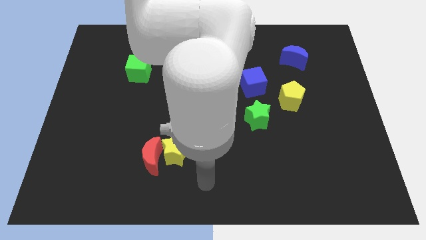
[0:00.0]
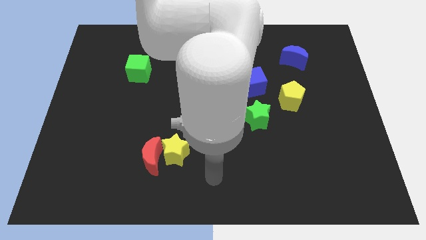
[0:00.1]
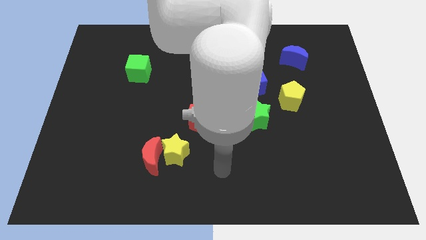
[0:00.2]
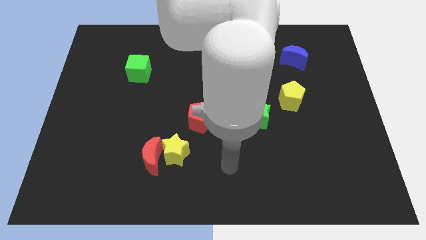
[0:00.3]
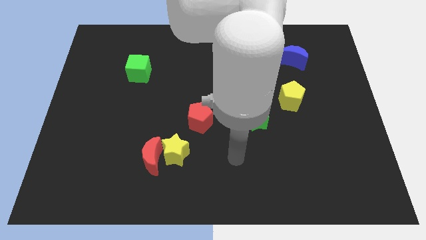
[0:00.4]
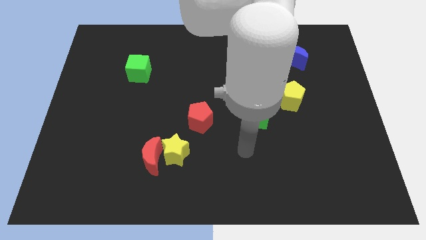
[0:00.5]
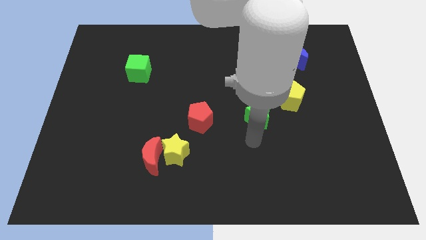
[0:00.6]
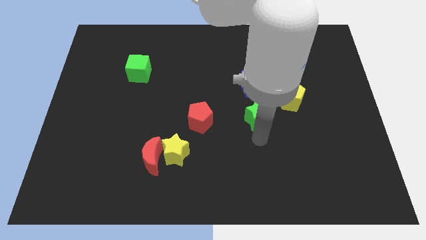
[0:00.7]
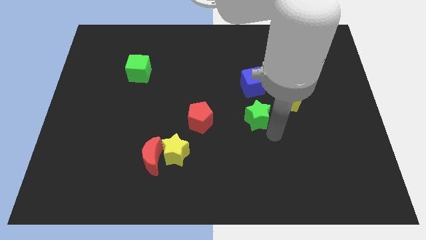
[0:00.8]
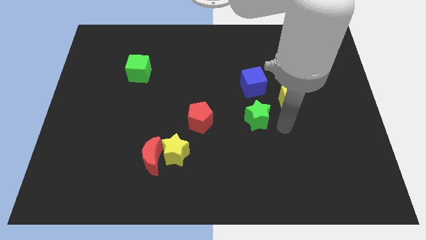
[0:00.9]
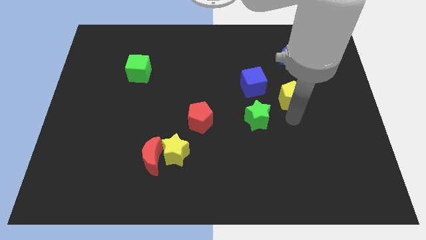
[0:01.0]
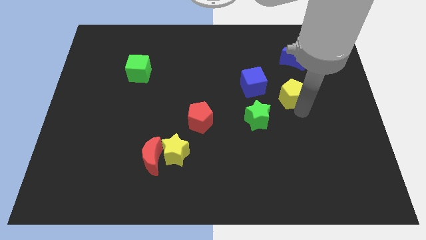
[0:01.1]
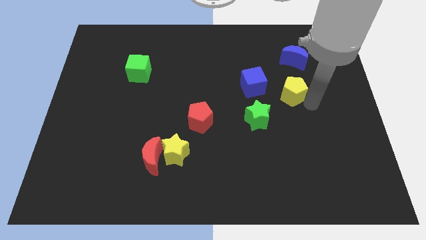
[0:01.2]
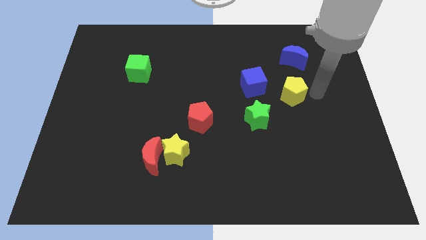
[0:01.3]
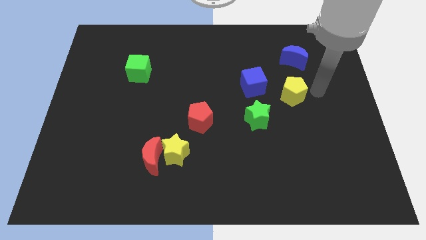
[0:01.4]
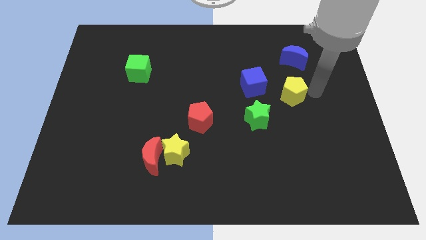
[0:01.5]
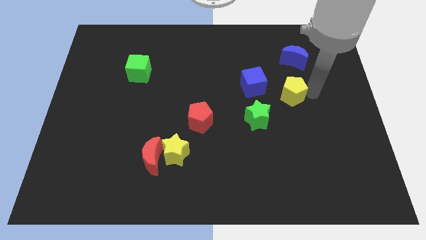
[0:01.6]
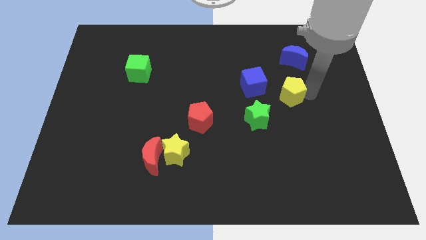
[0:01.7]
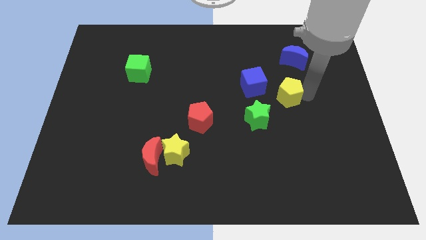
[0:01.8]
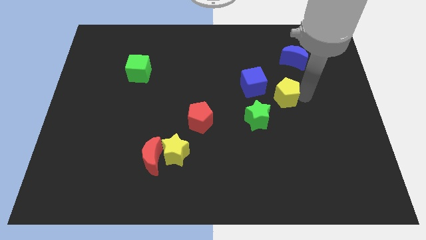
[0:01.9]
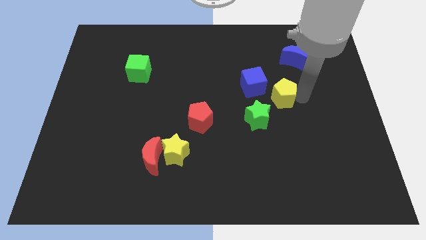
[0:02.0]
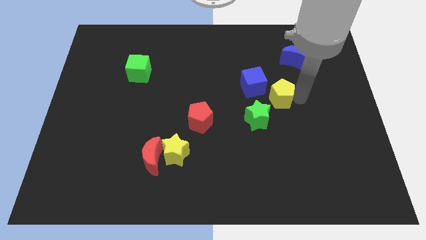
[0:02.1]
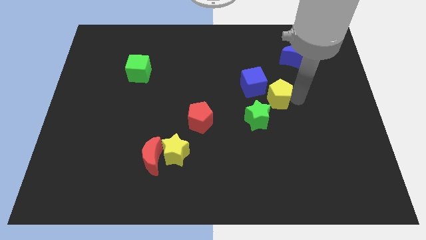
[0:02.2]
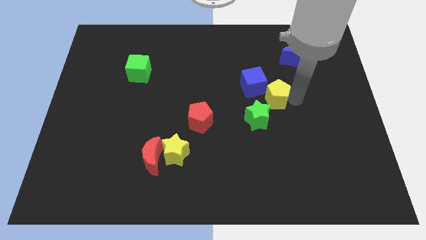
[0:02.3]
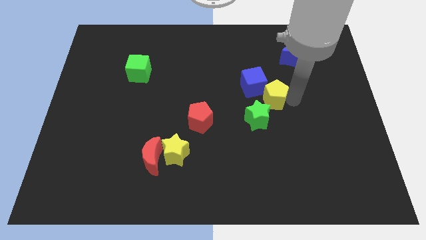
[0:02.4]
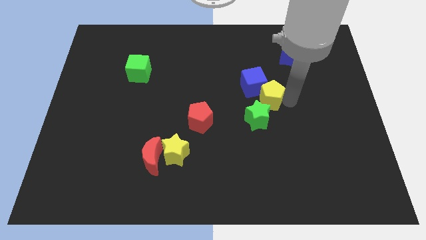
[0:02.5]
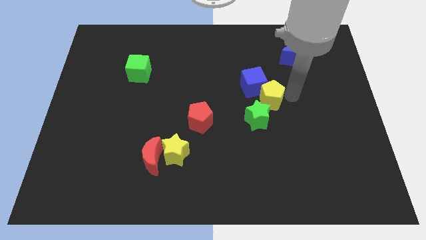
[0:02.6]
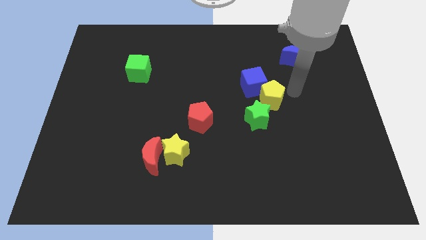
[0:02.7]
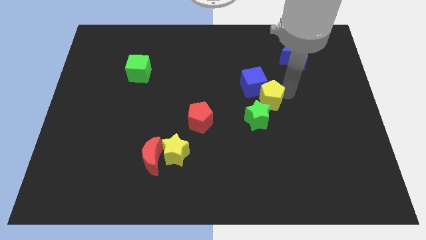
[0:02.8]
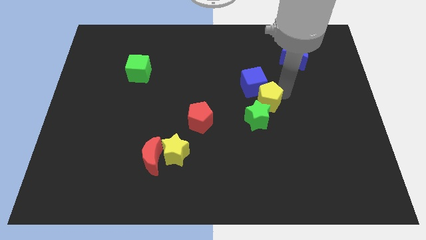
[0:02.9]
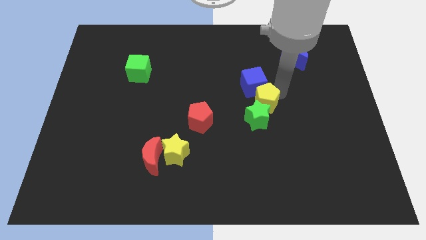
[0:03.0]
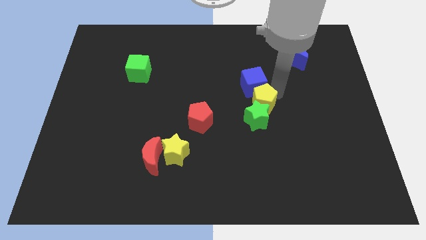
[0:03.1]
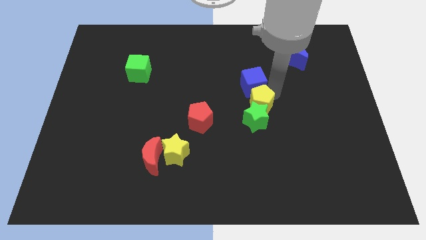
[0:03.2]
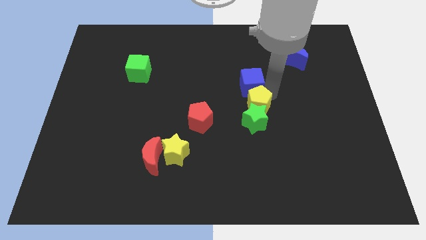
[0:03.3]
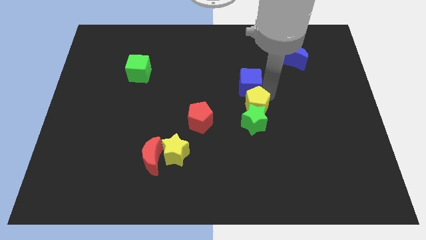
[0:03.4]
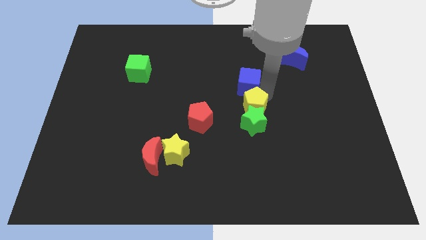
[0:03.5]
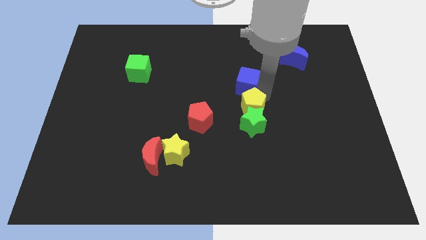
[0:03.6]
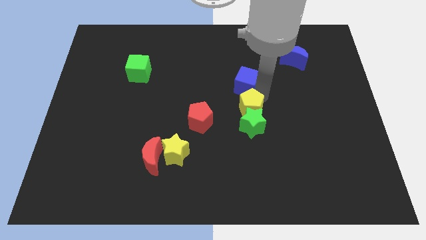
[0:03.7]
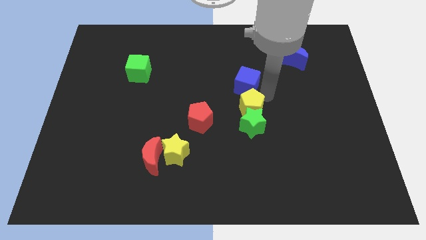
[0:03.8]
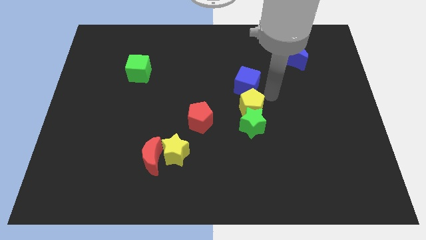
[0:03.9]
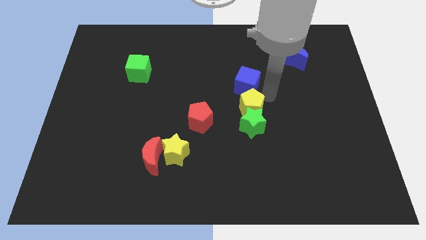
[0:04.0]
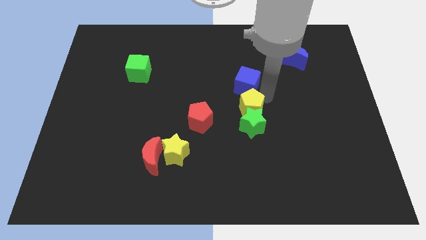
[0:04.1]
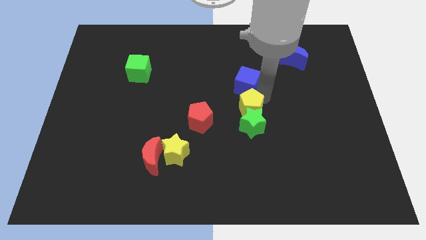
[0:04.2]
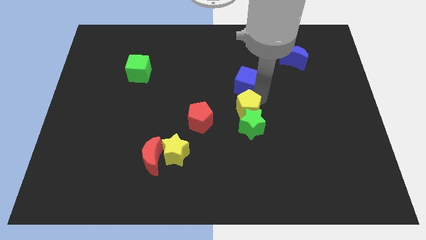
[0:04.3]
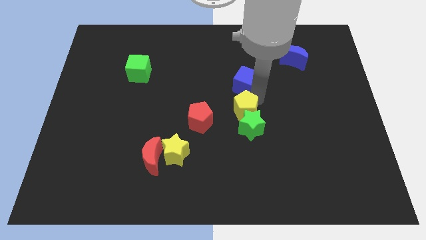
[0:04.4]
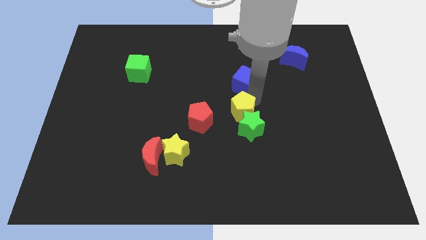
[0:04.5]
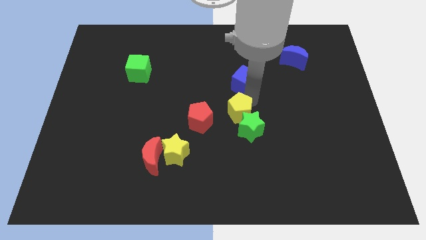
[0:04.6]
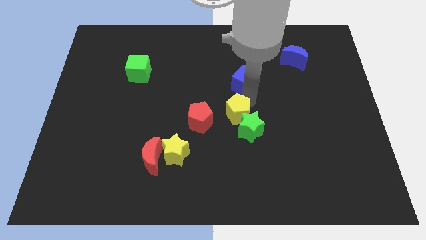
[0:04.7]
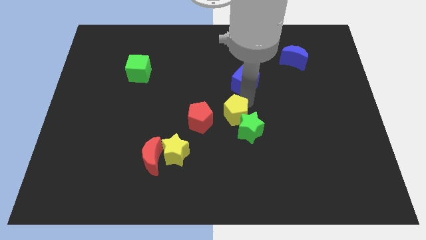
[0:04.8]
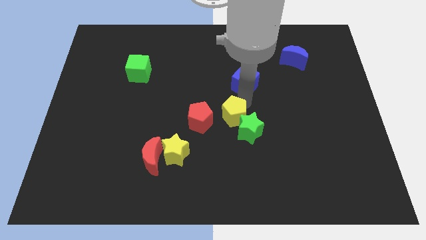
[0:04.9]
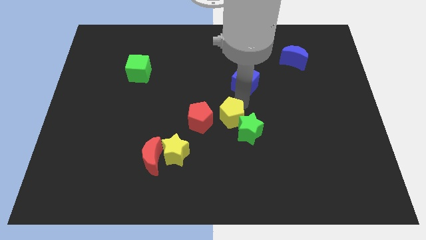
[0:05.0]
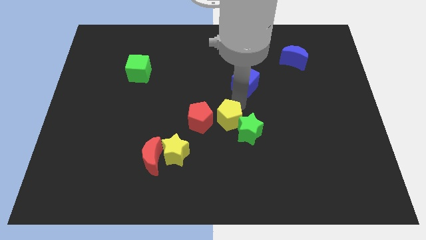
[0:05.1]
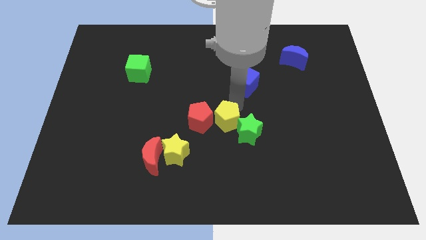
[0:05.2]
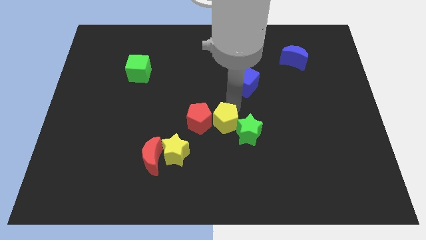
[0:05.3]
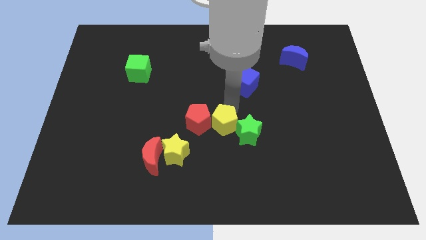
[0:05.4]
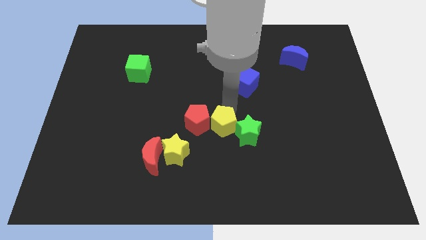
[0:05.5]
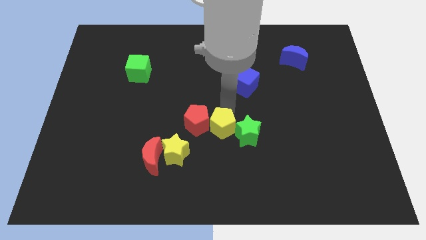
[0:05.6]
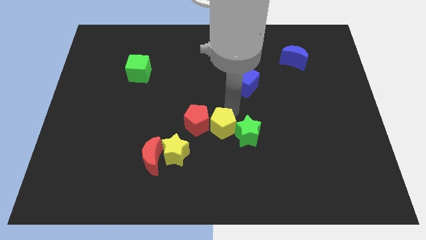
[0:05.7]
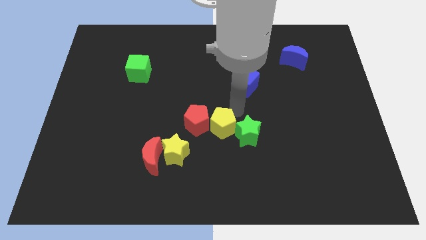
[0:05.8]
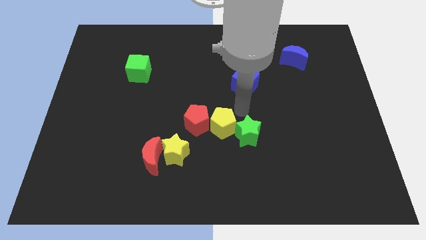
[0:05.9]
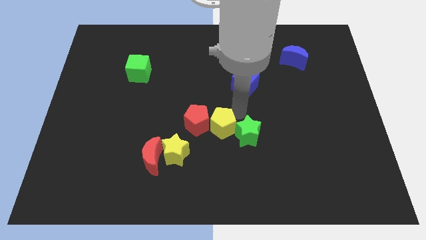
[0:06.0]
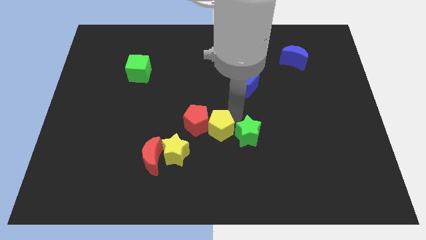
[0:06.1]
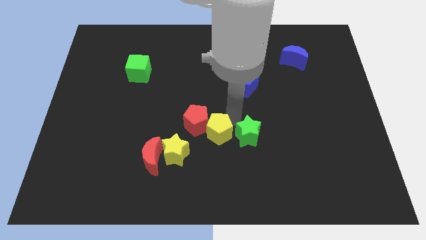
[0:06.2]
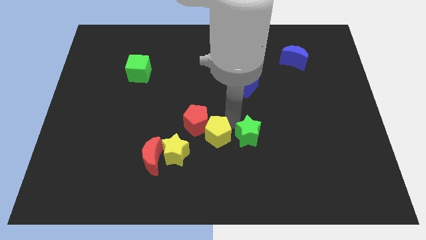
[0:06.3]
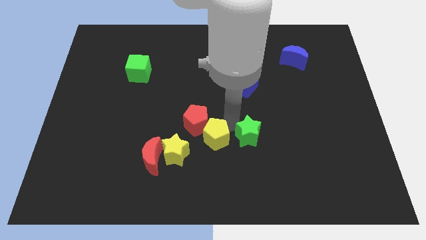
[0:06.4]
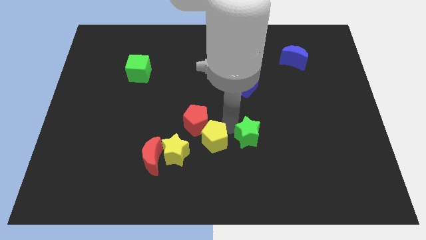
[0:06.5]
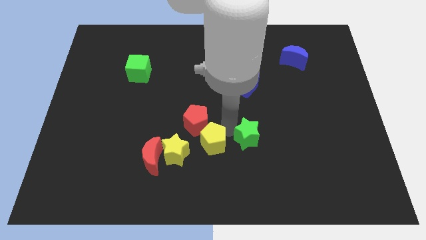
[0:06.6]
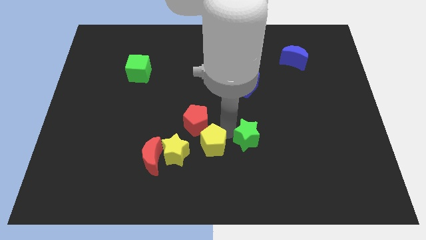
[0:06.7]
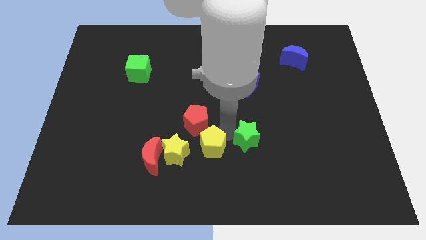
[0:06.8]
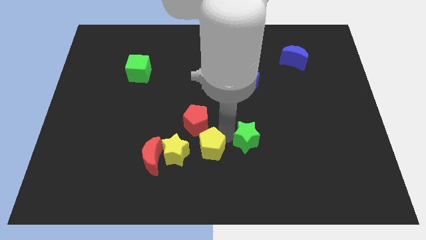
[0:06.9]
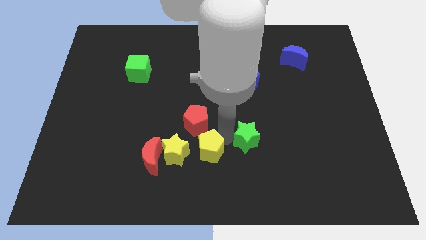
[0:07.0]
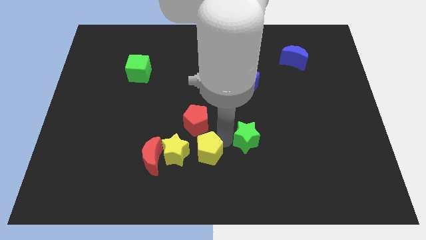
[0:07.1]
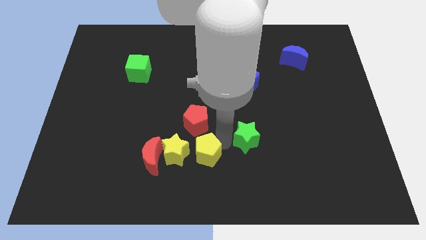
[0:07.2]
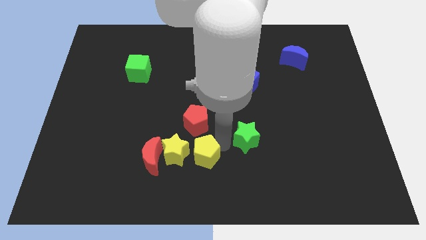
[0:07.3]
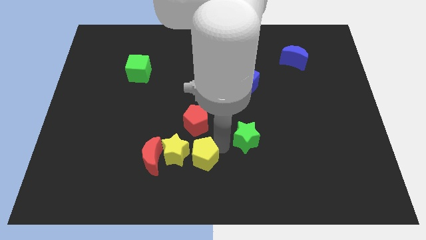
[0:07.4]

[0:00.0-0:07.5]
move the yellow pentagon towards the yellow star
